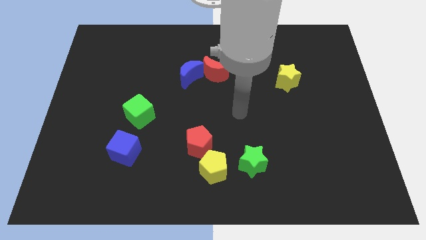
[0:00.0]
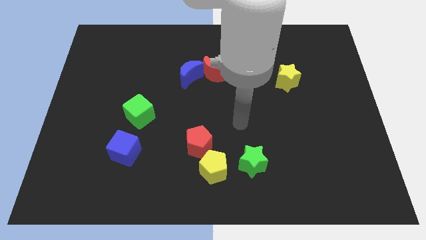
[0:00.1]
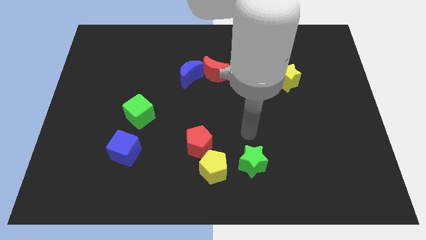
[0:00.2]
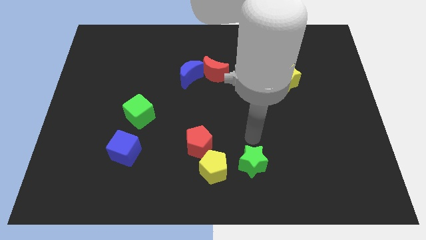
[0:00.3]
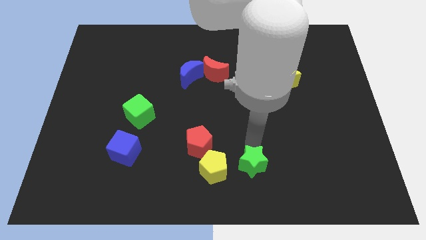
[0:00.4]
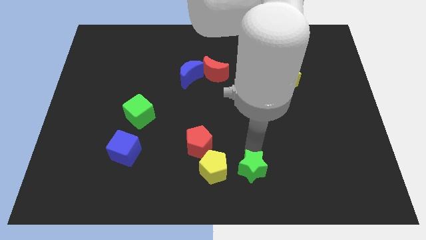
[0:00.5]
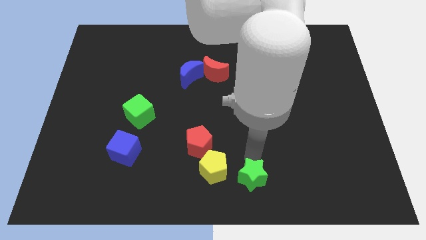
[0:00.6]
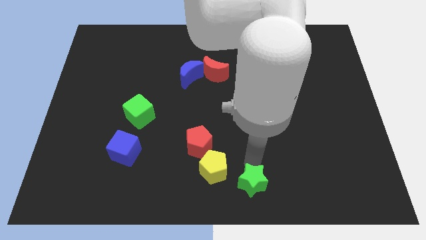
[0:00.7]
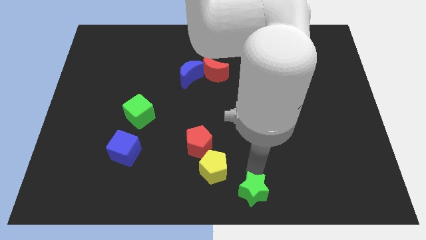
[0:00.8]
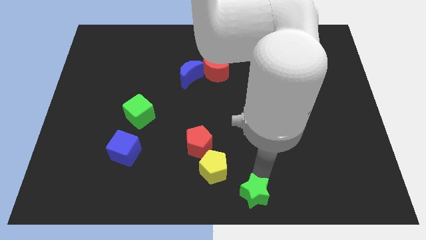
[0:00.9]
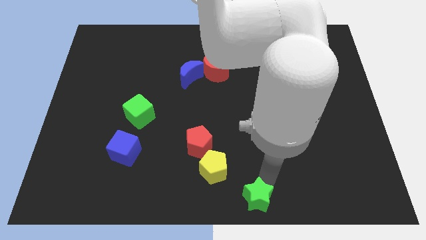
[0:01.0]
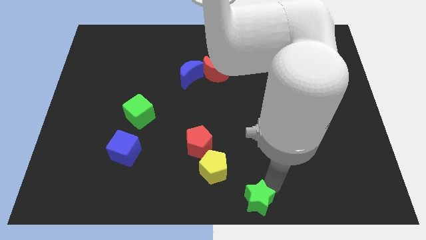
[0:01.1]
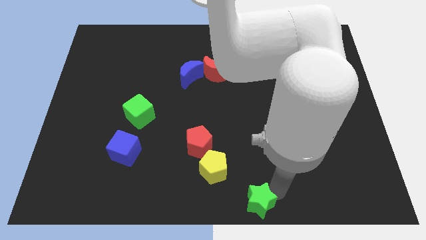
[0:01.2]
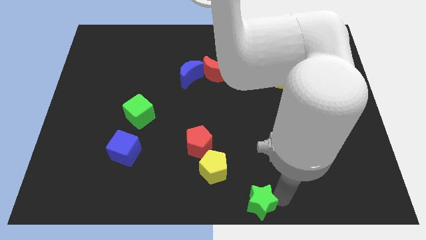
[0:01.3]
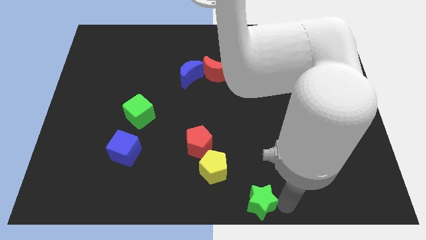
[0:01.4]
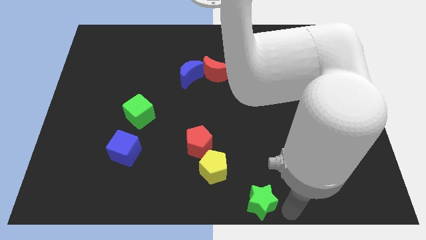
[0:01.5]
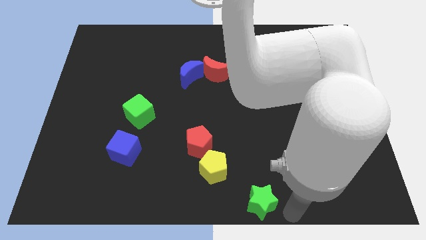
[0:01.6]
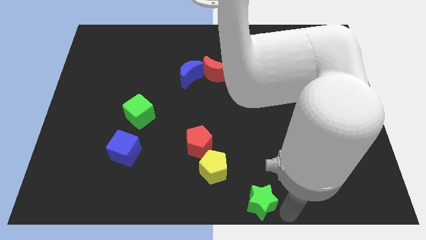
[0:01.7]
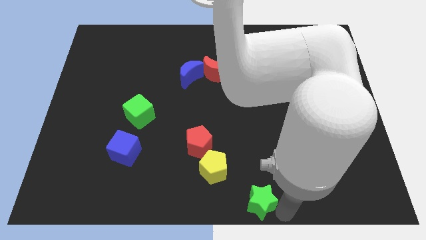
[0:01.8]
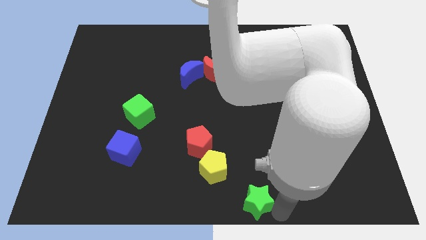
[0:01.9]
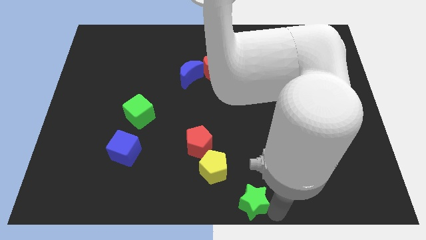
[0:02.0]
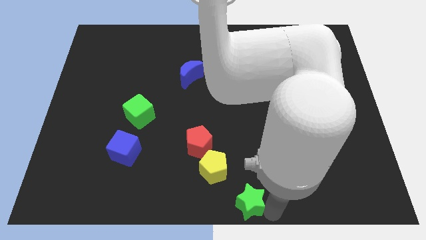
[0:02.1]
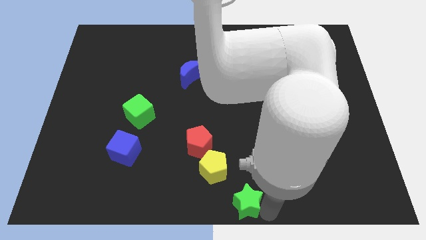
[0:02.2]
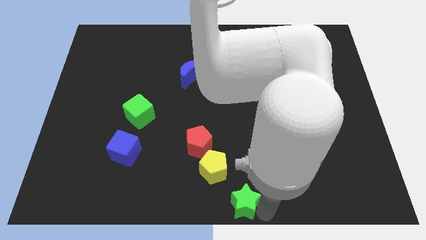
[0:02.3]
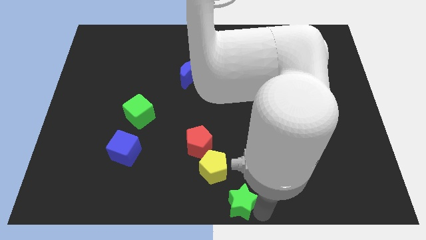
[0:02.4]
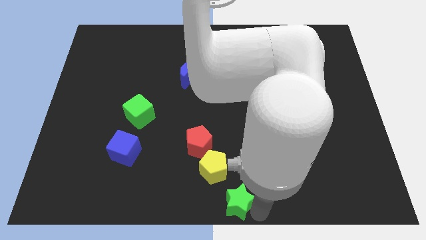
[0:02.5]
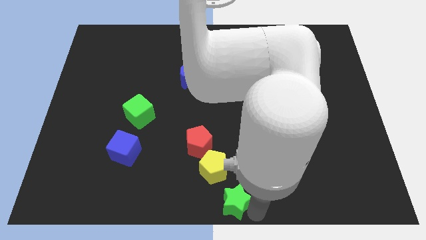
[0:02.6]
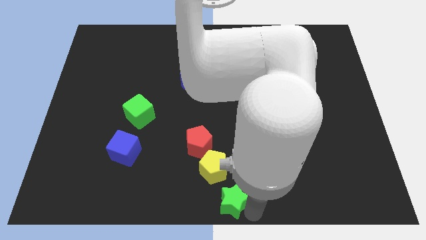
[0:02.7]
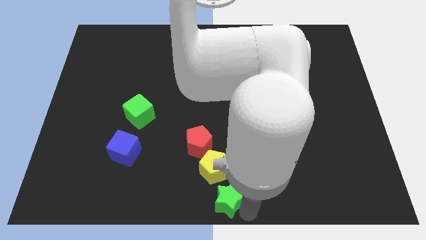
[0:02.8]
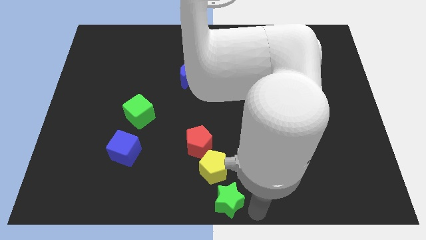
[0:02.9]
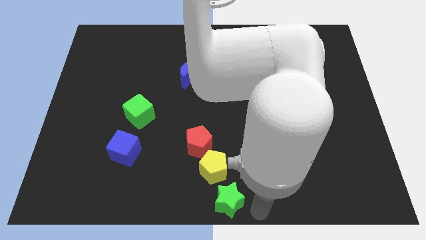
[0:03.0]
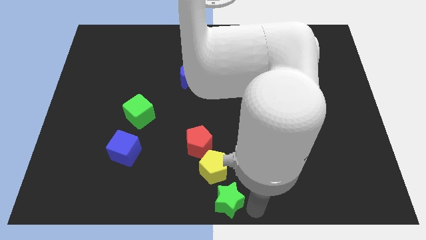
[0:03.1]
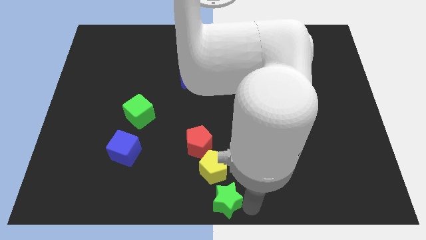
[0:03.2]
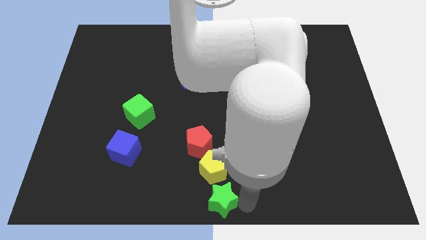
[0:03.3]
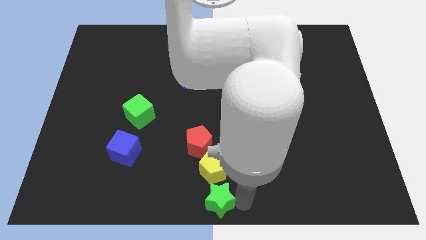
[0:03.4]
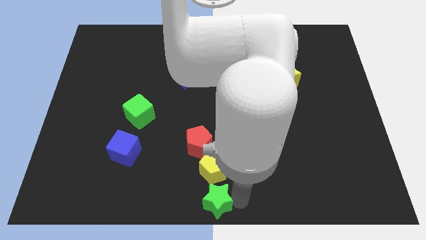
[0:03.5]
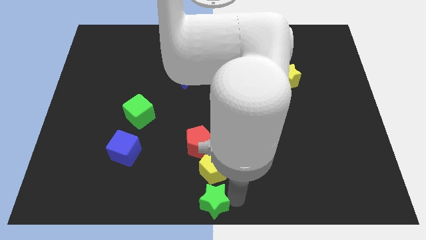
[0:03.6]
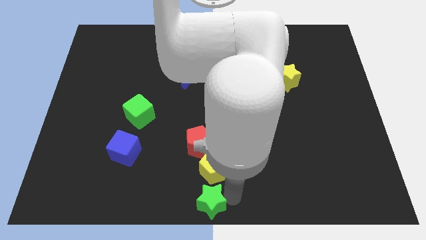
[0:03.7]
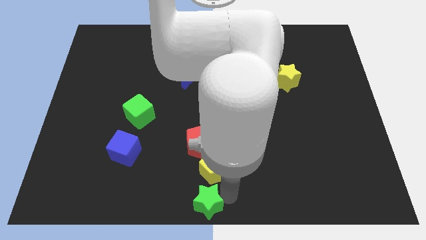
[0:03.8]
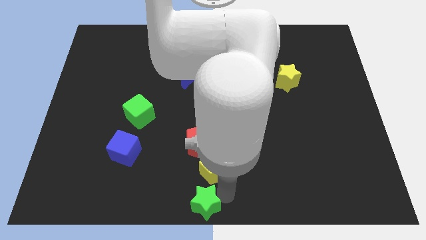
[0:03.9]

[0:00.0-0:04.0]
push the green star somewhat to the left

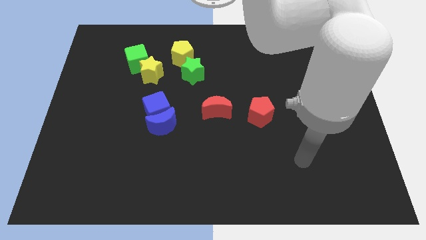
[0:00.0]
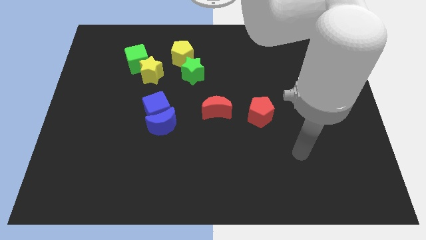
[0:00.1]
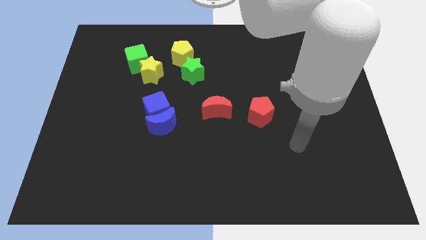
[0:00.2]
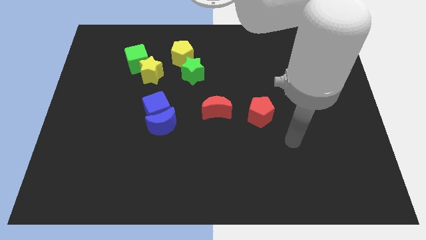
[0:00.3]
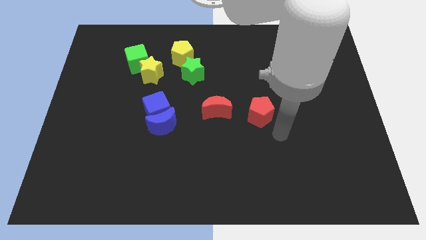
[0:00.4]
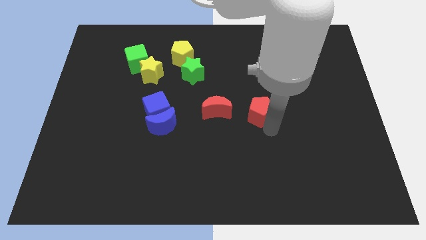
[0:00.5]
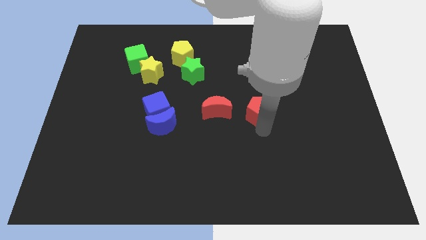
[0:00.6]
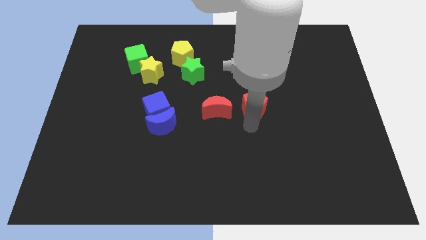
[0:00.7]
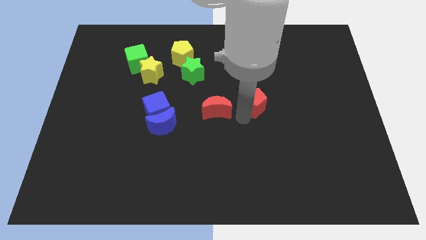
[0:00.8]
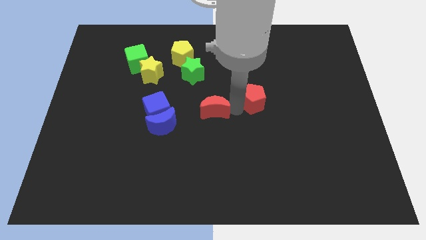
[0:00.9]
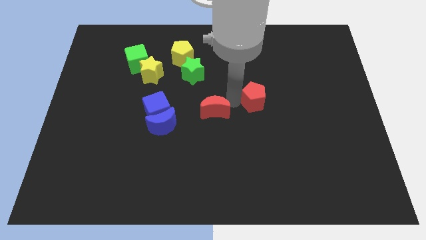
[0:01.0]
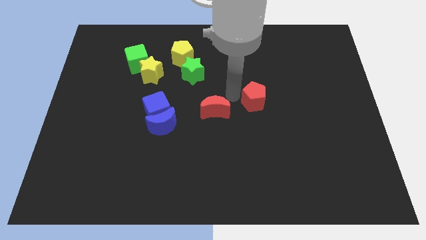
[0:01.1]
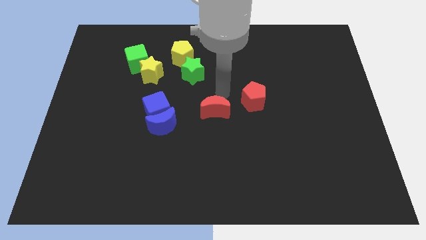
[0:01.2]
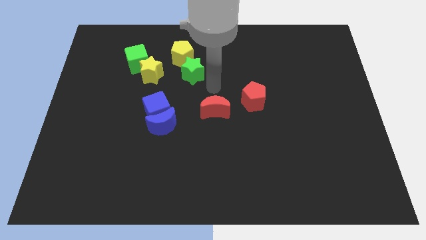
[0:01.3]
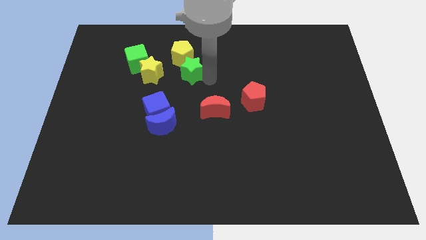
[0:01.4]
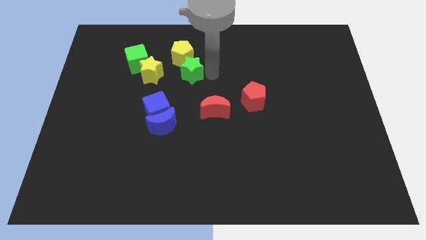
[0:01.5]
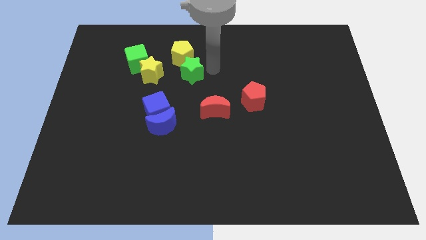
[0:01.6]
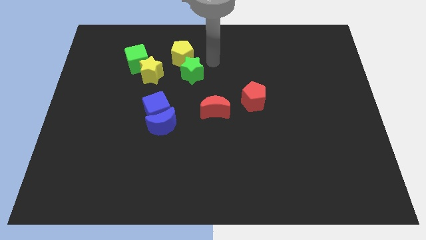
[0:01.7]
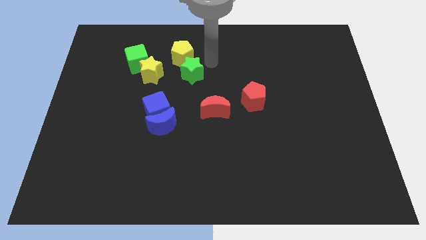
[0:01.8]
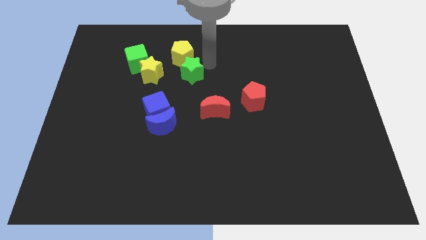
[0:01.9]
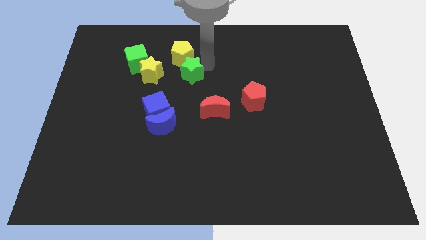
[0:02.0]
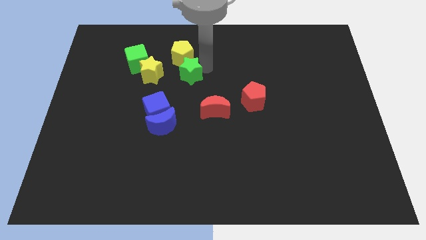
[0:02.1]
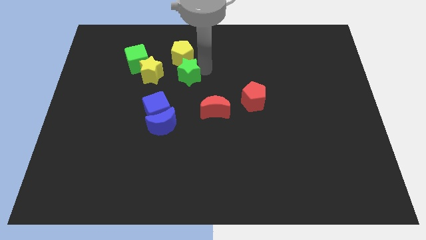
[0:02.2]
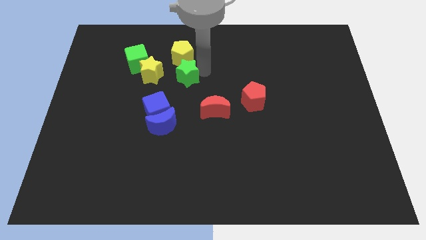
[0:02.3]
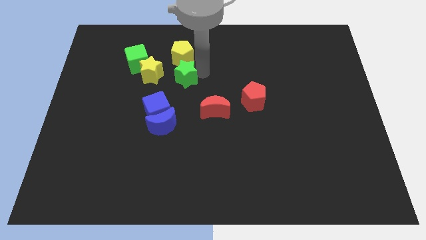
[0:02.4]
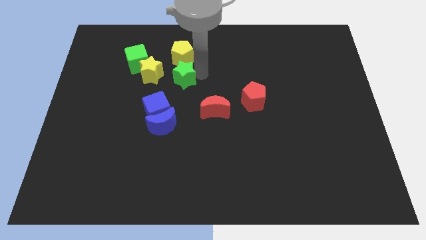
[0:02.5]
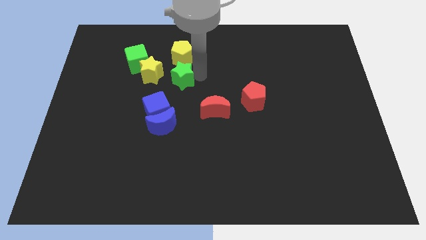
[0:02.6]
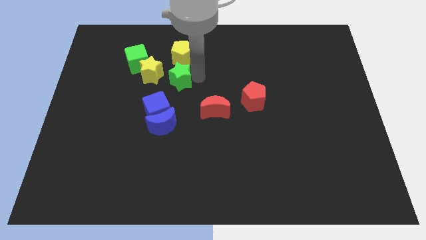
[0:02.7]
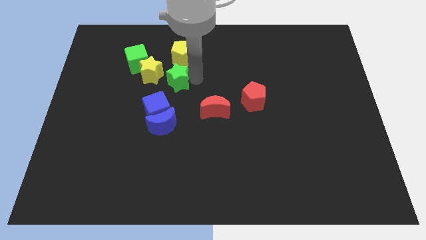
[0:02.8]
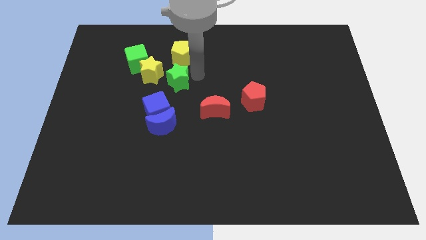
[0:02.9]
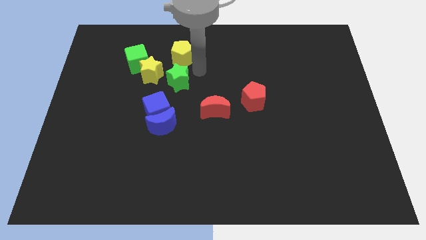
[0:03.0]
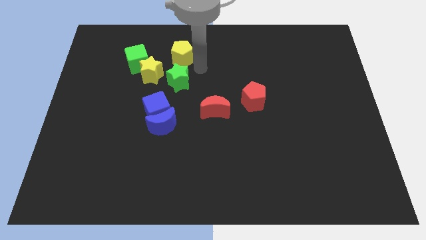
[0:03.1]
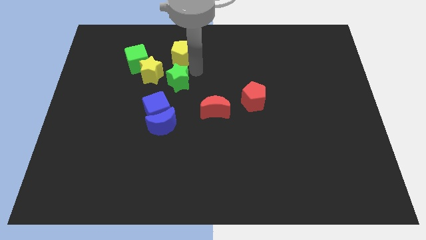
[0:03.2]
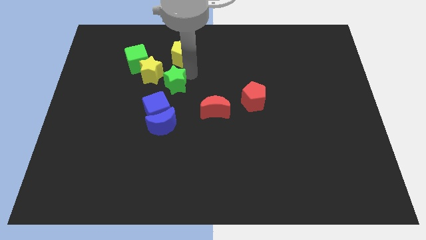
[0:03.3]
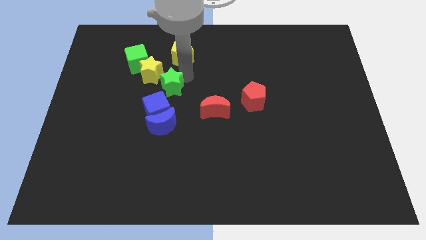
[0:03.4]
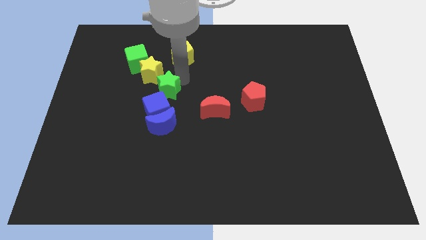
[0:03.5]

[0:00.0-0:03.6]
move the green star a little diagonally down and to the left

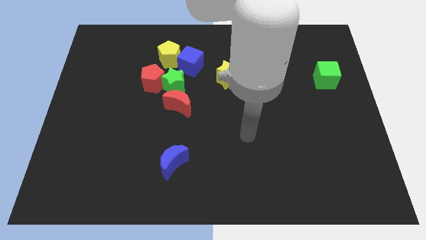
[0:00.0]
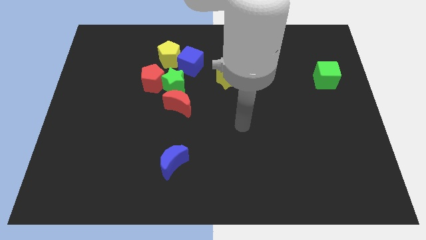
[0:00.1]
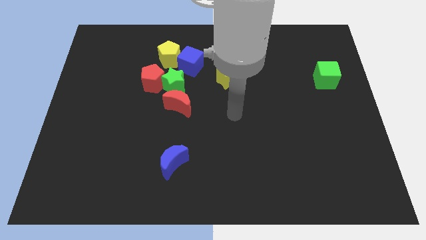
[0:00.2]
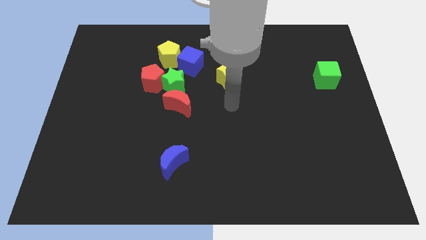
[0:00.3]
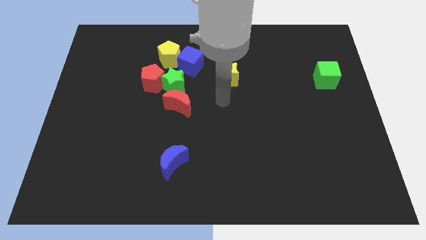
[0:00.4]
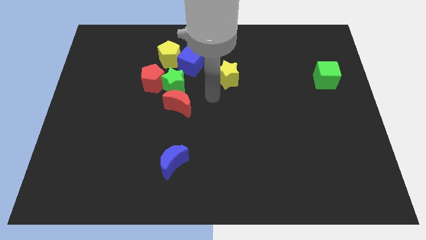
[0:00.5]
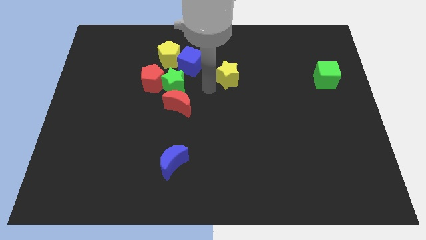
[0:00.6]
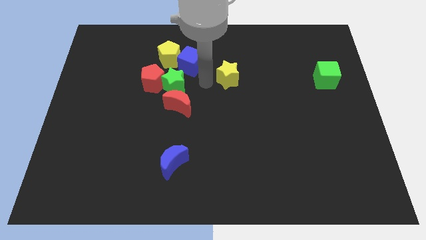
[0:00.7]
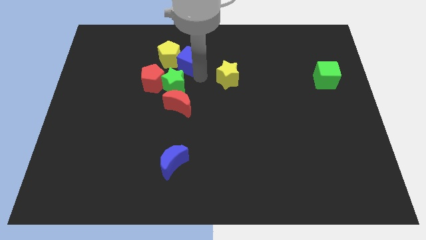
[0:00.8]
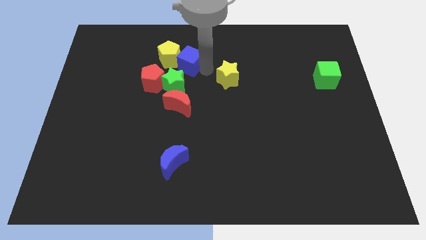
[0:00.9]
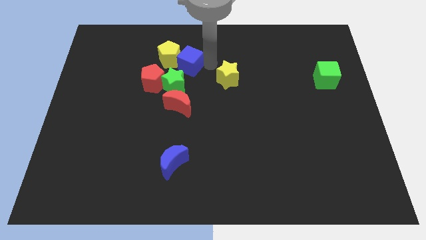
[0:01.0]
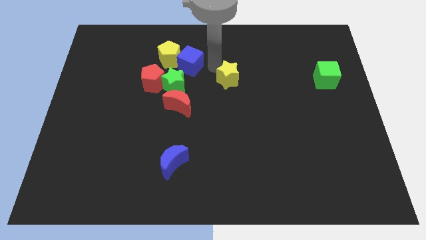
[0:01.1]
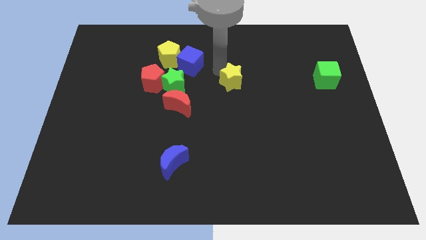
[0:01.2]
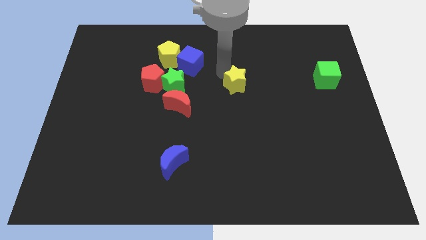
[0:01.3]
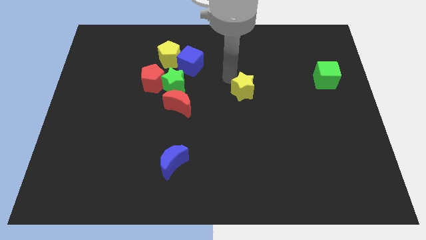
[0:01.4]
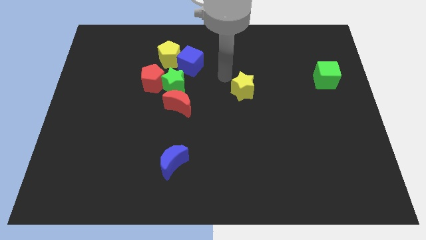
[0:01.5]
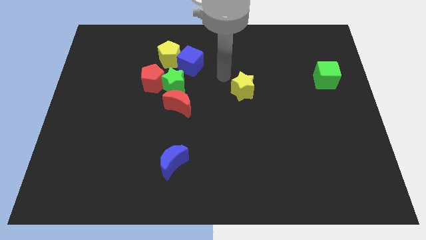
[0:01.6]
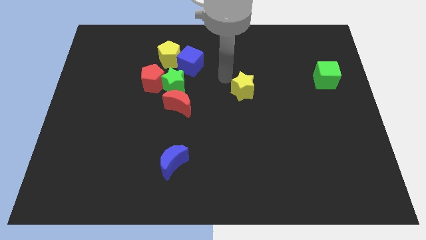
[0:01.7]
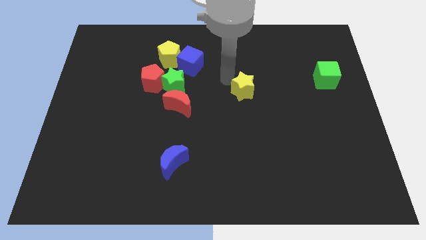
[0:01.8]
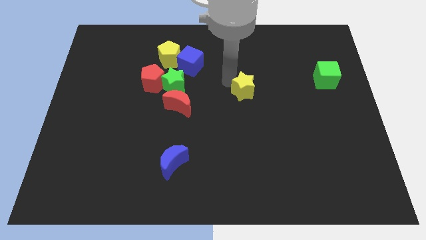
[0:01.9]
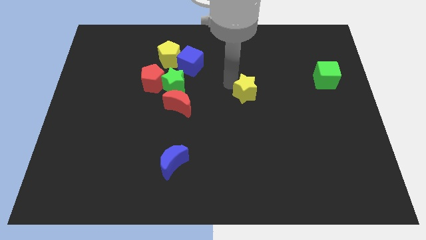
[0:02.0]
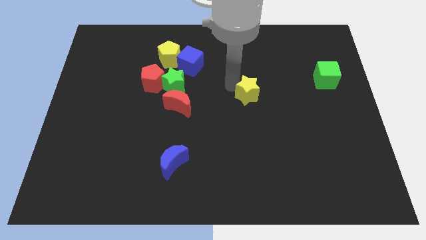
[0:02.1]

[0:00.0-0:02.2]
push the yellow star a little bit down and to the right diagonally
